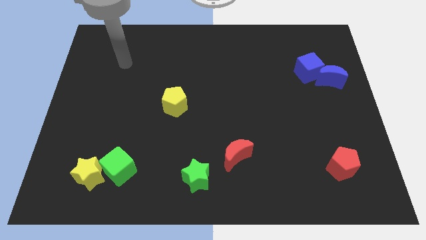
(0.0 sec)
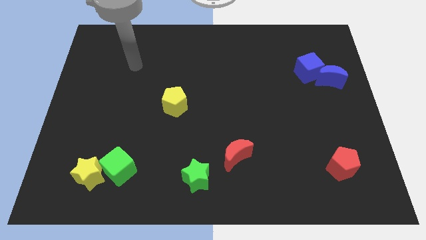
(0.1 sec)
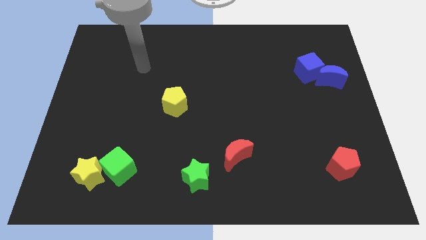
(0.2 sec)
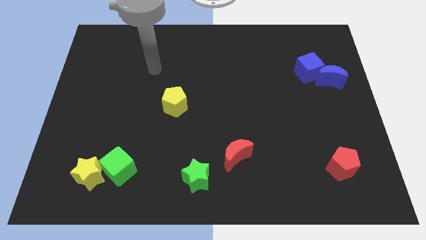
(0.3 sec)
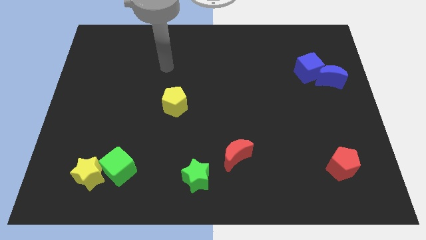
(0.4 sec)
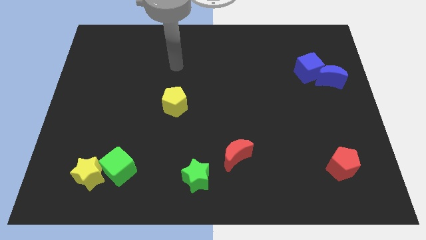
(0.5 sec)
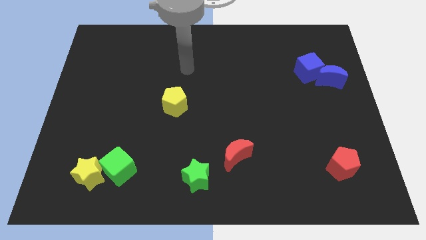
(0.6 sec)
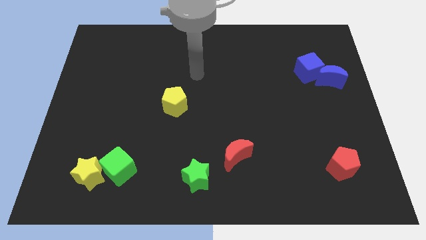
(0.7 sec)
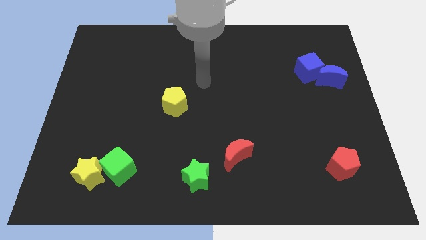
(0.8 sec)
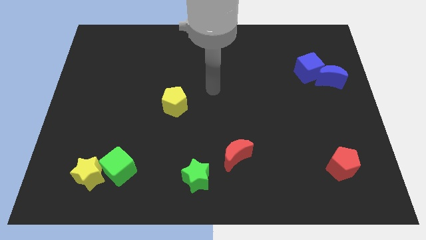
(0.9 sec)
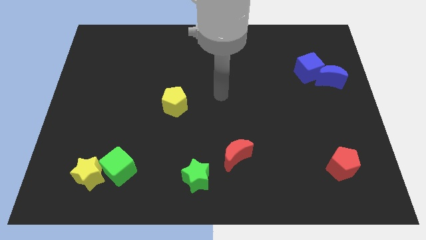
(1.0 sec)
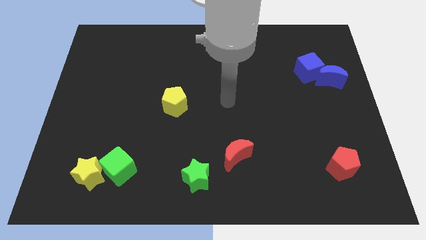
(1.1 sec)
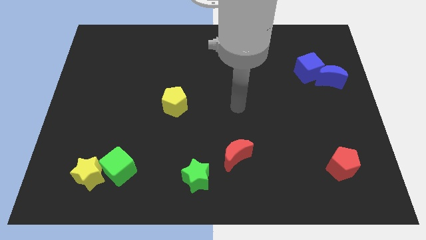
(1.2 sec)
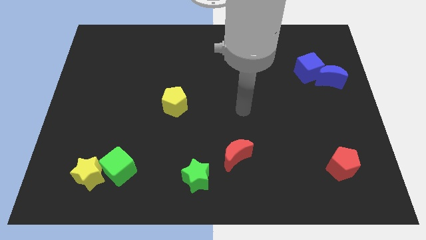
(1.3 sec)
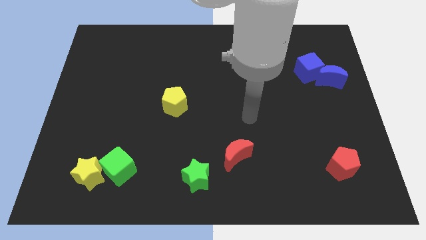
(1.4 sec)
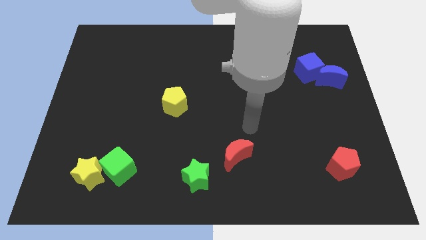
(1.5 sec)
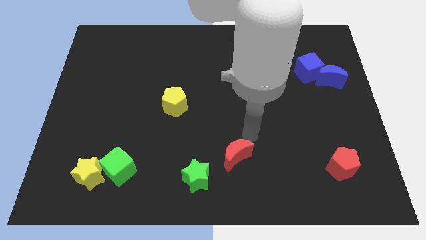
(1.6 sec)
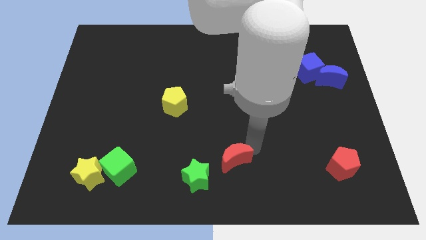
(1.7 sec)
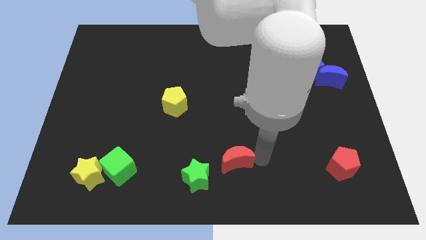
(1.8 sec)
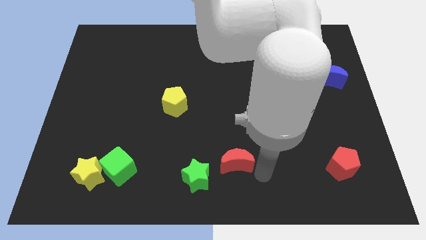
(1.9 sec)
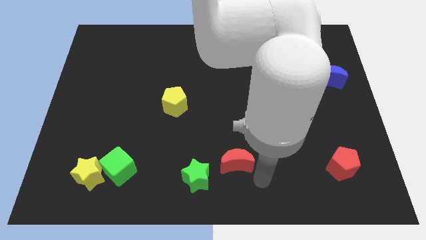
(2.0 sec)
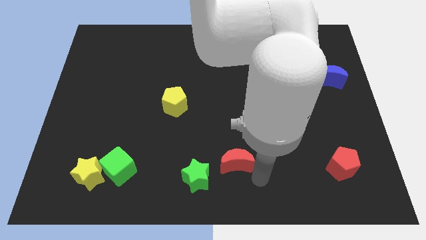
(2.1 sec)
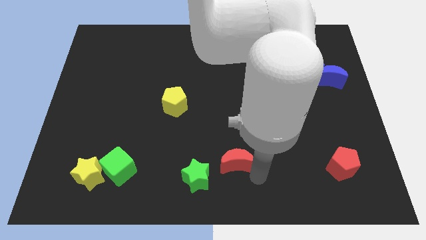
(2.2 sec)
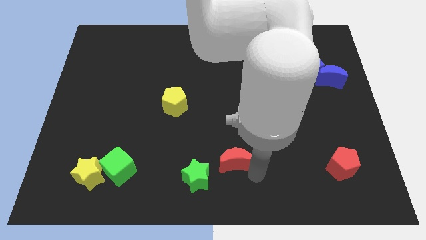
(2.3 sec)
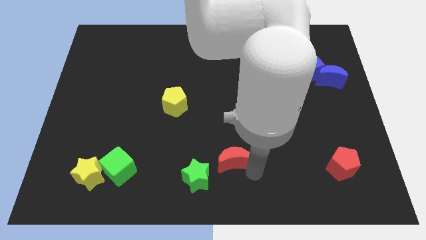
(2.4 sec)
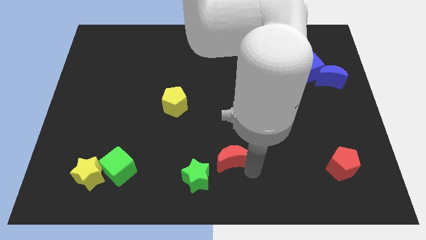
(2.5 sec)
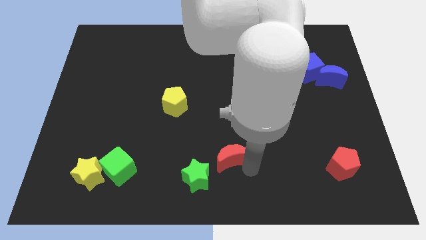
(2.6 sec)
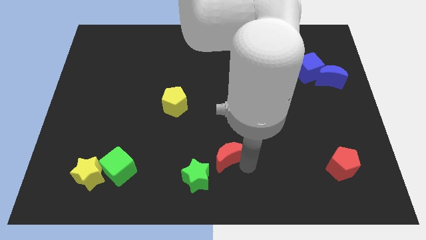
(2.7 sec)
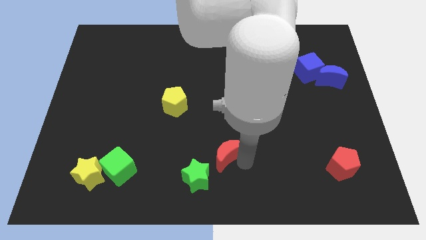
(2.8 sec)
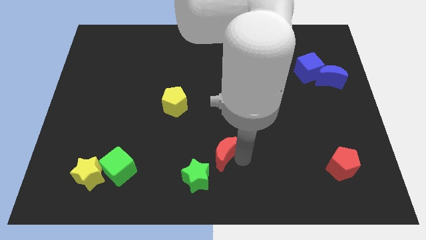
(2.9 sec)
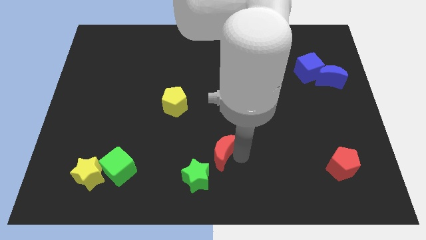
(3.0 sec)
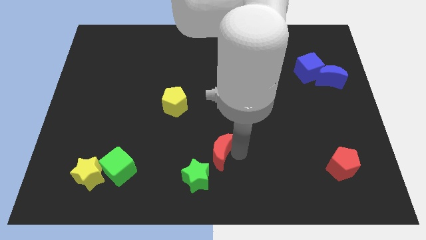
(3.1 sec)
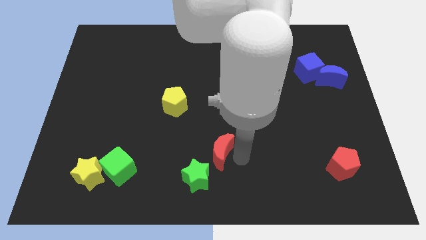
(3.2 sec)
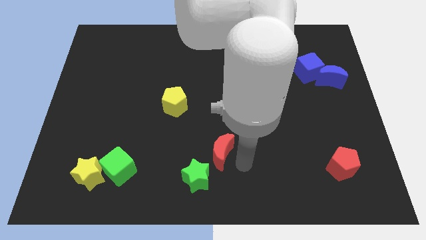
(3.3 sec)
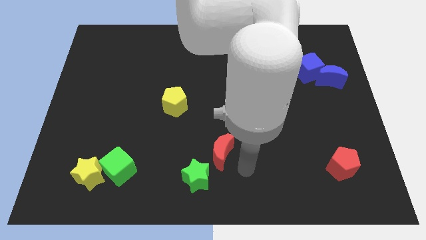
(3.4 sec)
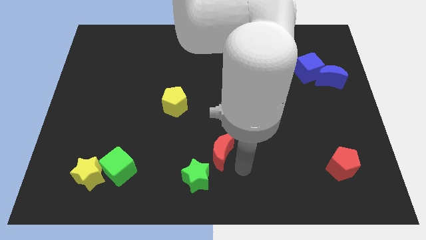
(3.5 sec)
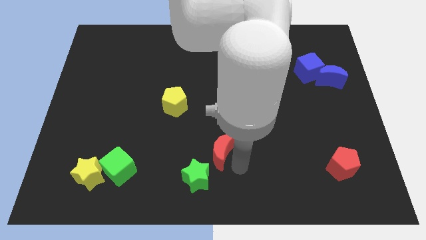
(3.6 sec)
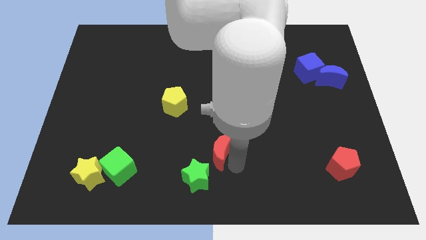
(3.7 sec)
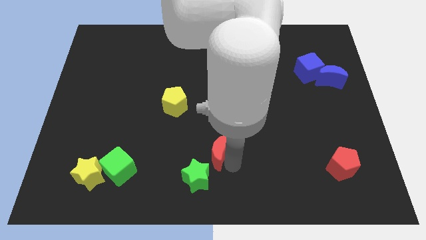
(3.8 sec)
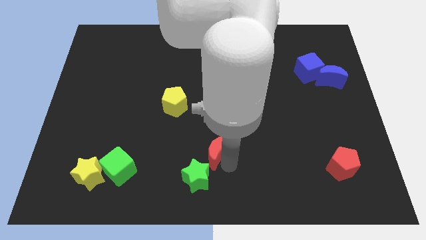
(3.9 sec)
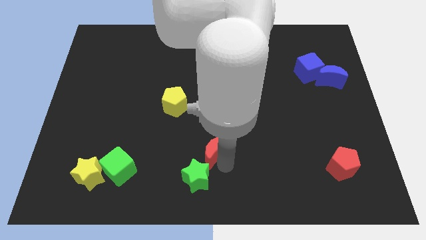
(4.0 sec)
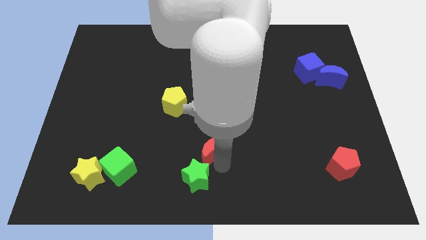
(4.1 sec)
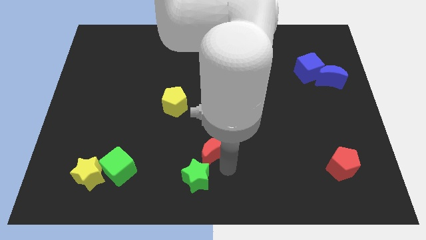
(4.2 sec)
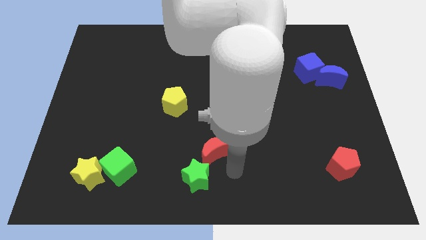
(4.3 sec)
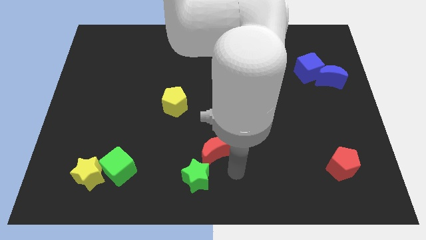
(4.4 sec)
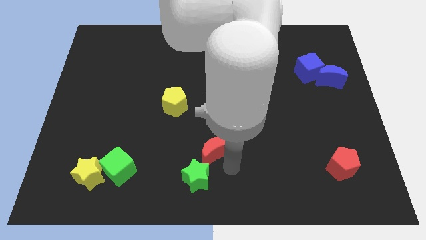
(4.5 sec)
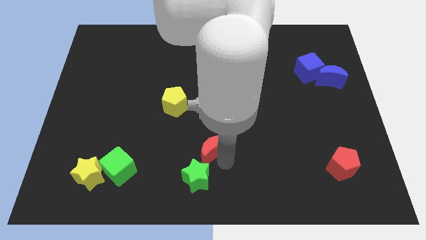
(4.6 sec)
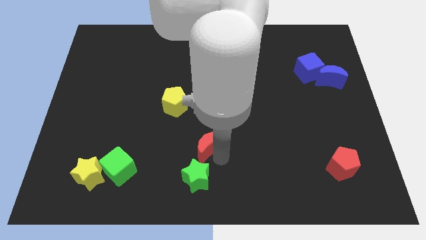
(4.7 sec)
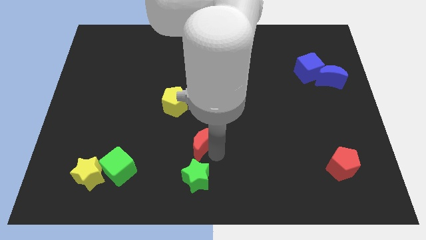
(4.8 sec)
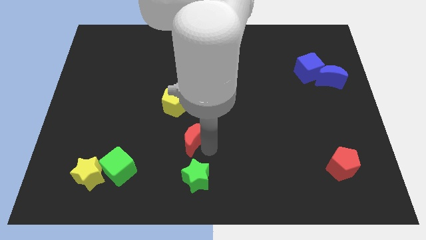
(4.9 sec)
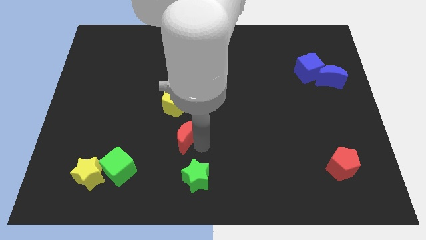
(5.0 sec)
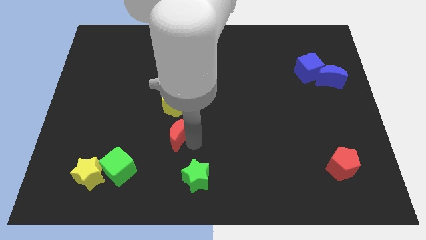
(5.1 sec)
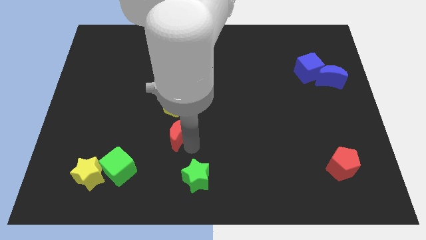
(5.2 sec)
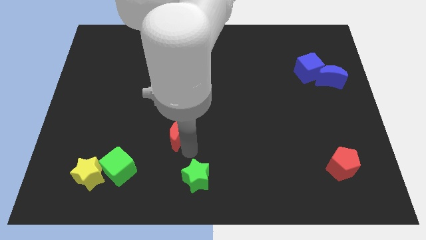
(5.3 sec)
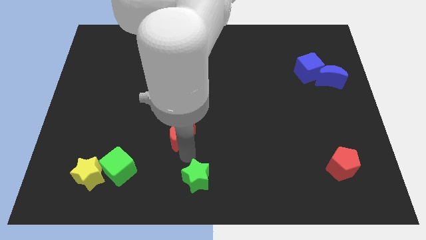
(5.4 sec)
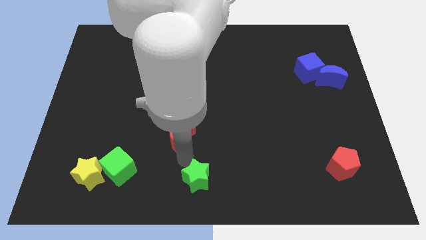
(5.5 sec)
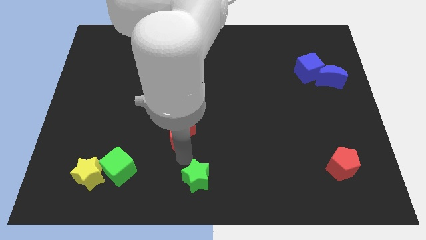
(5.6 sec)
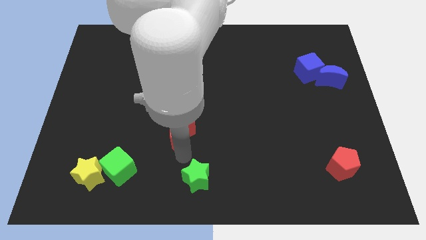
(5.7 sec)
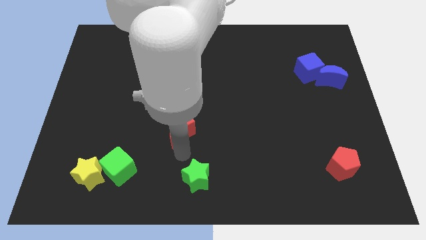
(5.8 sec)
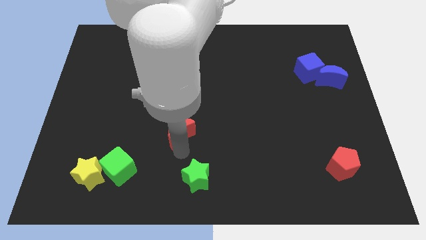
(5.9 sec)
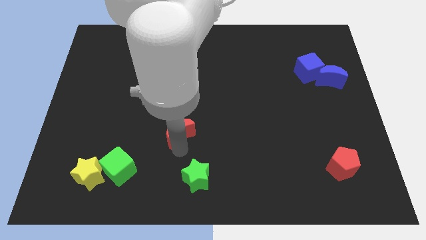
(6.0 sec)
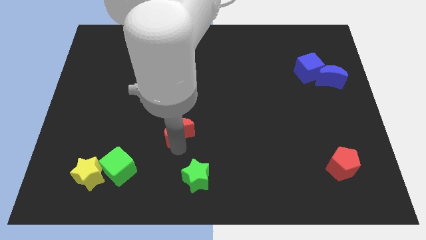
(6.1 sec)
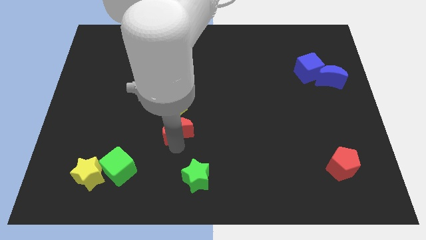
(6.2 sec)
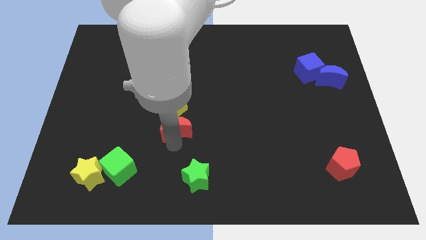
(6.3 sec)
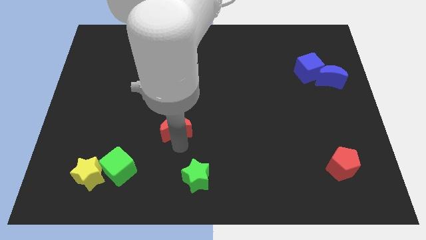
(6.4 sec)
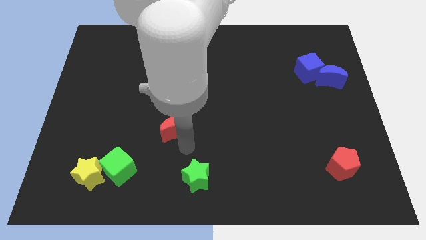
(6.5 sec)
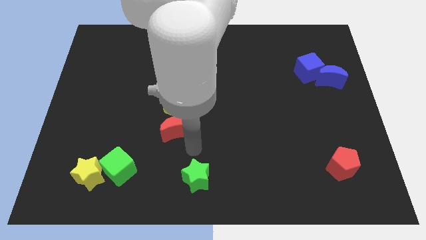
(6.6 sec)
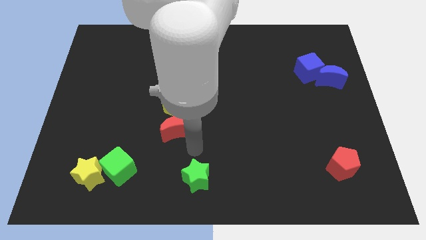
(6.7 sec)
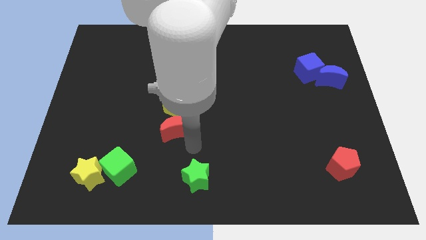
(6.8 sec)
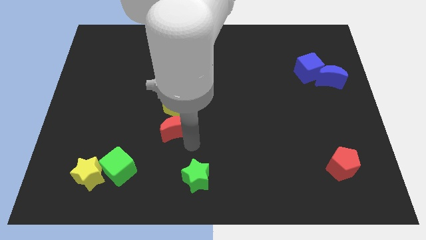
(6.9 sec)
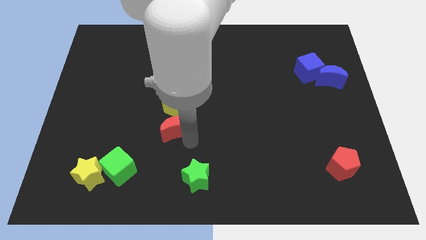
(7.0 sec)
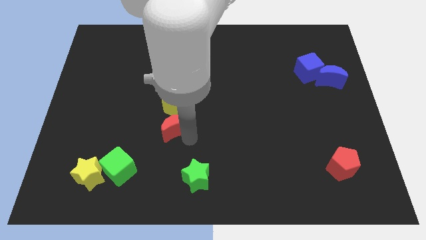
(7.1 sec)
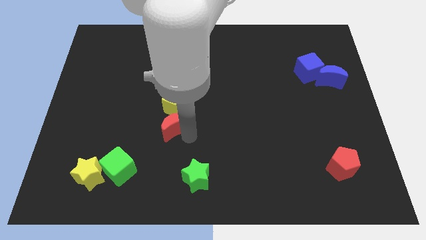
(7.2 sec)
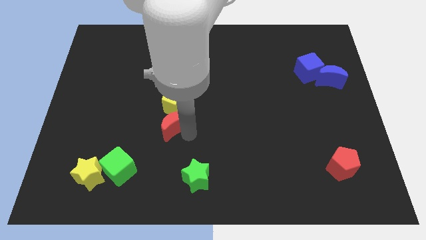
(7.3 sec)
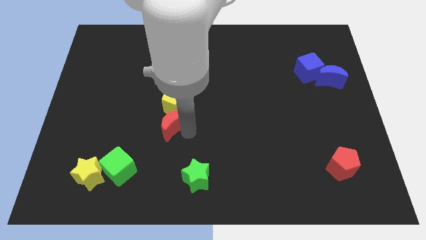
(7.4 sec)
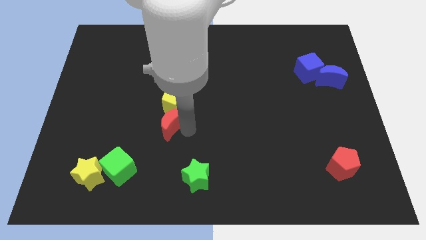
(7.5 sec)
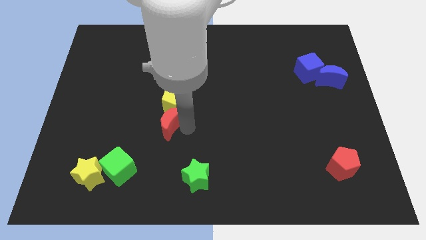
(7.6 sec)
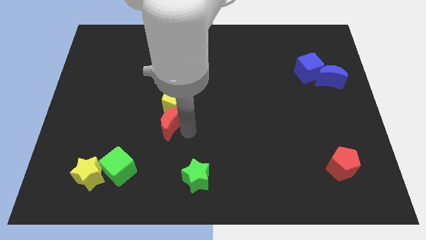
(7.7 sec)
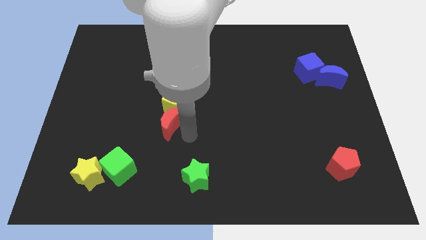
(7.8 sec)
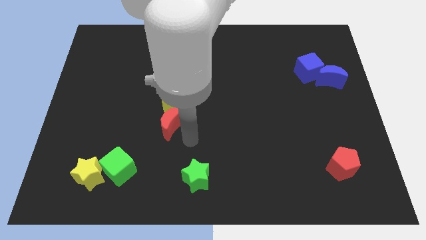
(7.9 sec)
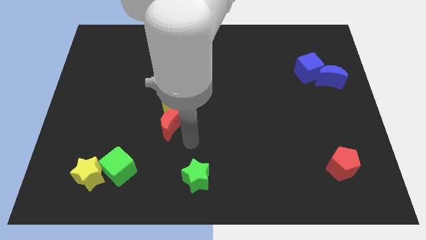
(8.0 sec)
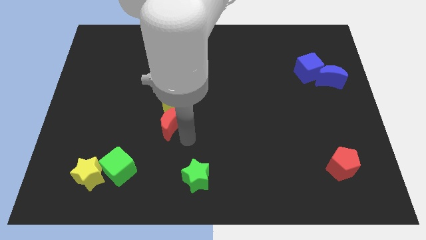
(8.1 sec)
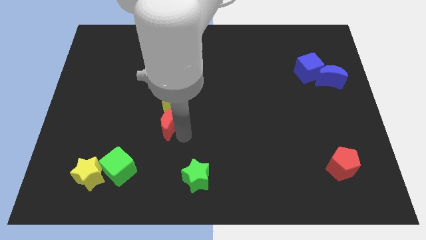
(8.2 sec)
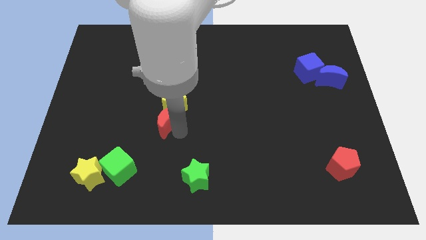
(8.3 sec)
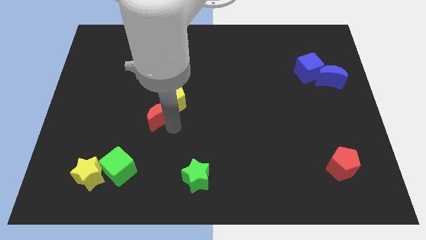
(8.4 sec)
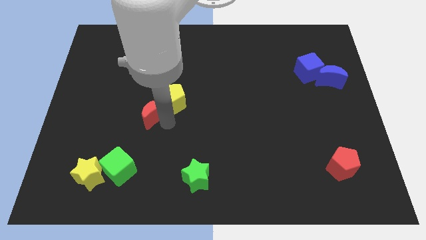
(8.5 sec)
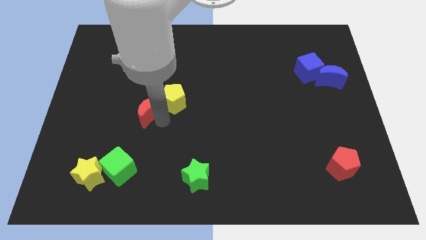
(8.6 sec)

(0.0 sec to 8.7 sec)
push the red moon up and left diagonally
